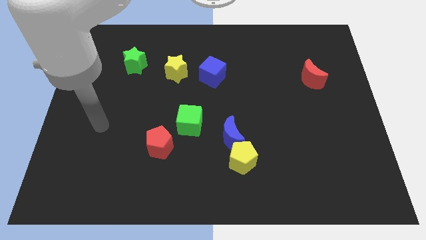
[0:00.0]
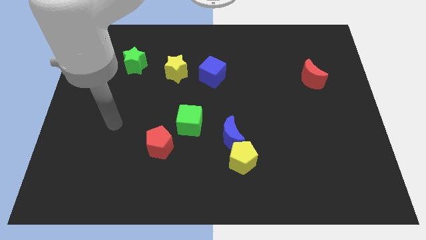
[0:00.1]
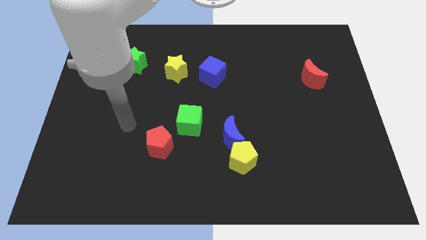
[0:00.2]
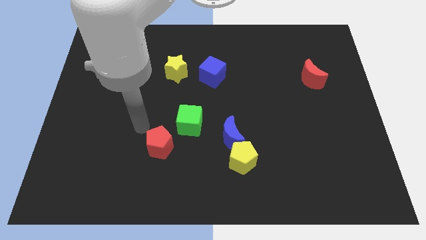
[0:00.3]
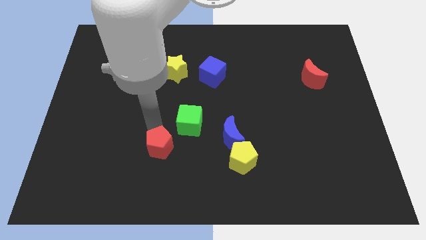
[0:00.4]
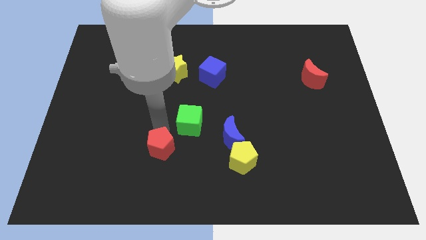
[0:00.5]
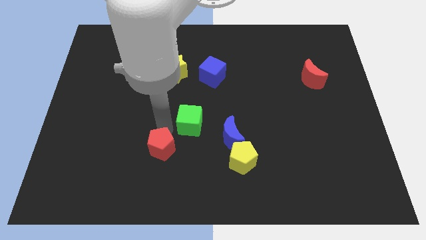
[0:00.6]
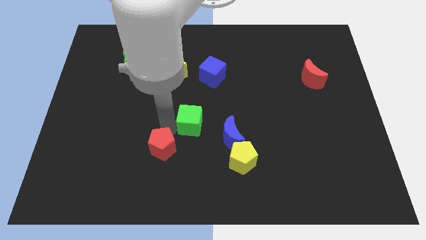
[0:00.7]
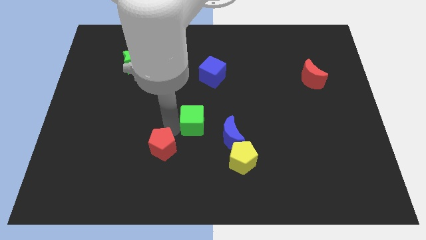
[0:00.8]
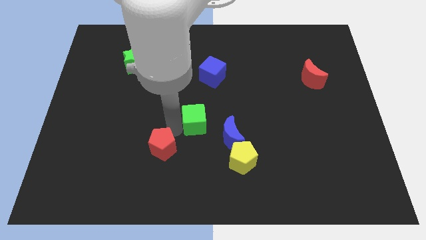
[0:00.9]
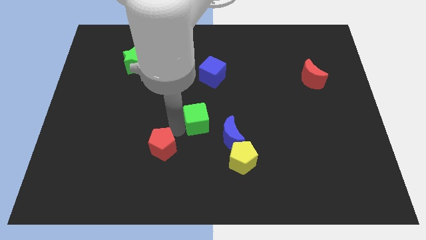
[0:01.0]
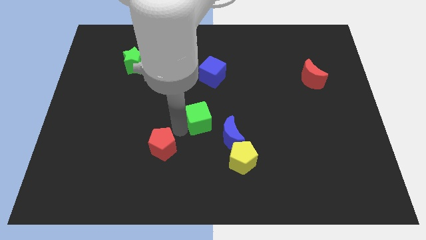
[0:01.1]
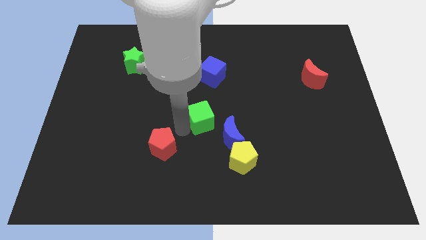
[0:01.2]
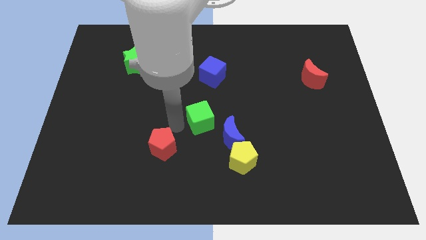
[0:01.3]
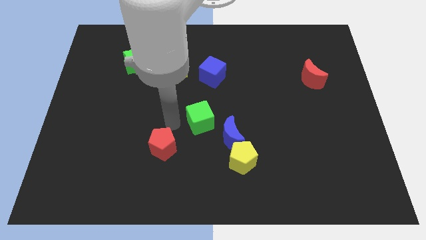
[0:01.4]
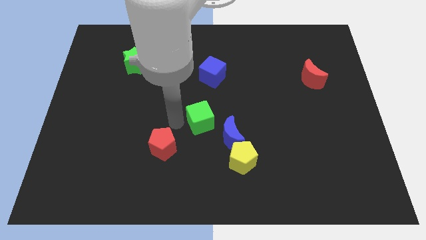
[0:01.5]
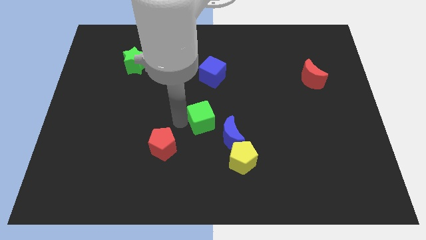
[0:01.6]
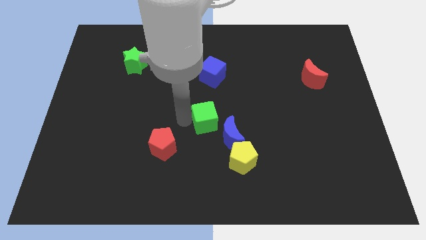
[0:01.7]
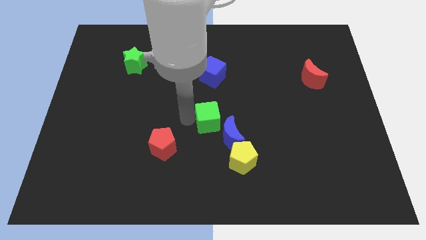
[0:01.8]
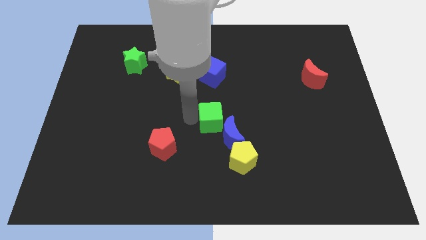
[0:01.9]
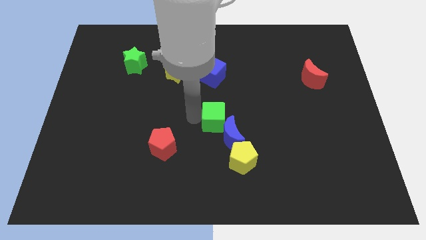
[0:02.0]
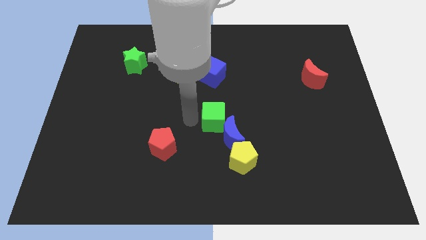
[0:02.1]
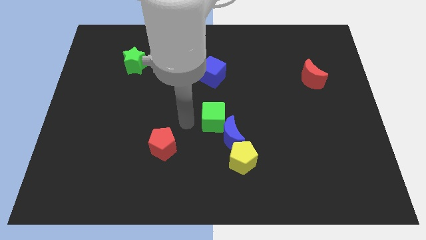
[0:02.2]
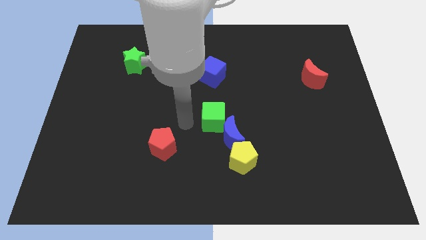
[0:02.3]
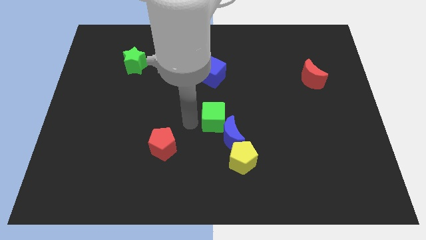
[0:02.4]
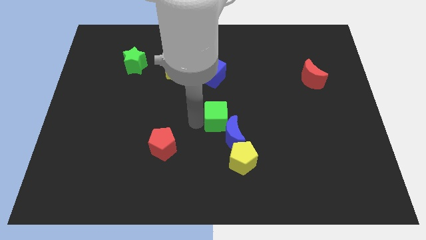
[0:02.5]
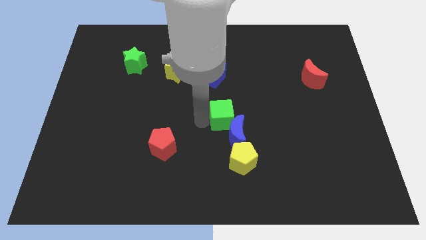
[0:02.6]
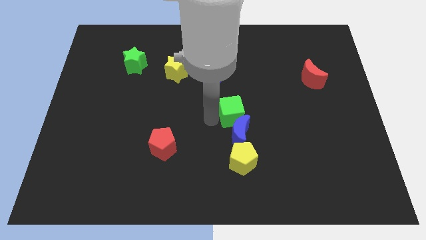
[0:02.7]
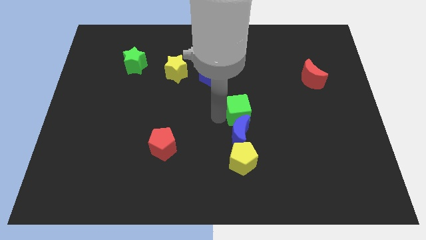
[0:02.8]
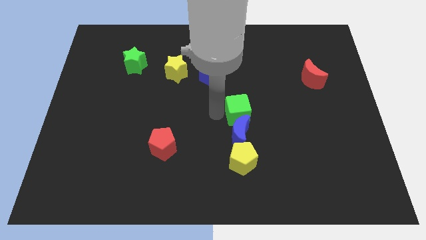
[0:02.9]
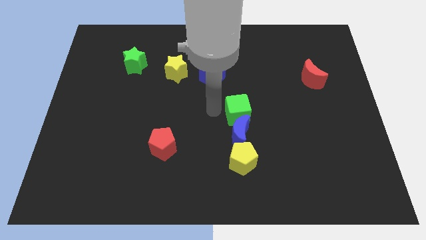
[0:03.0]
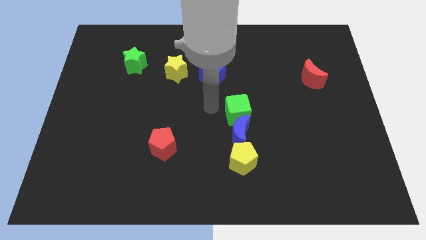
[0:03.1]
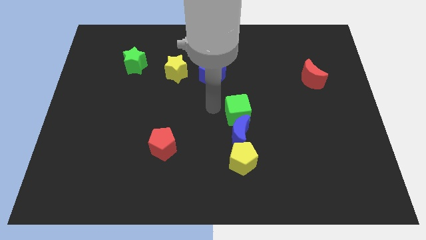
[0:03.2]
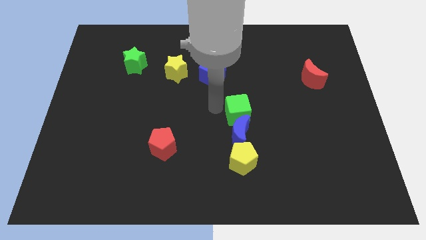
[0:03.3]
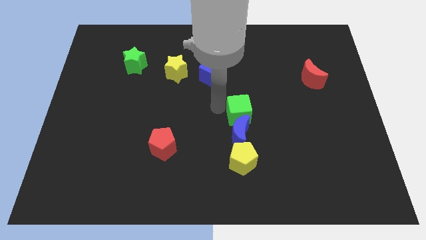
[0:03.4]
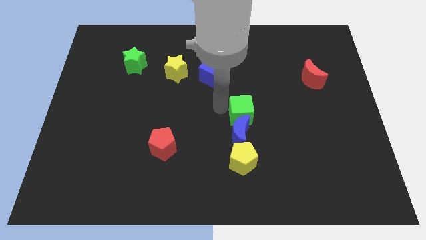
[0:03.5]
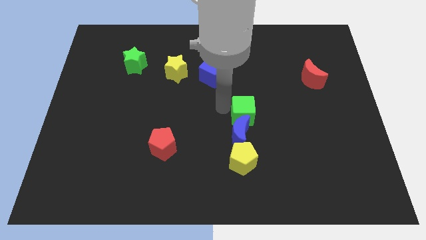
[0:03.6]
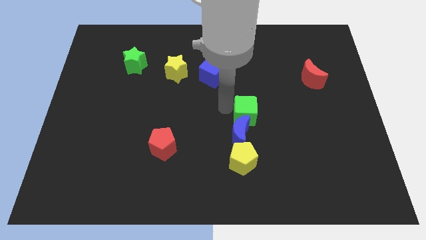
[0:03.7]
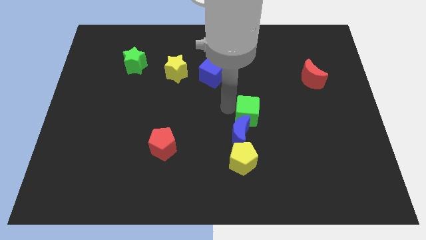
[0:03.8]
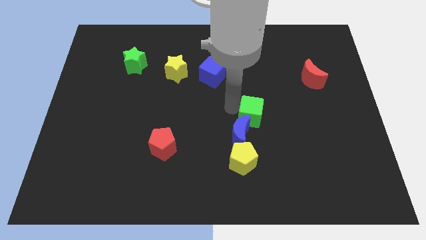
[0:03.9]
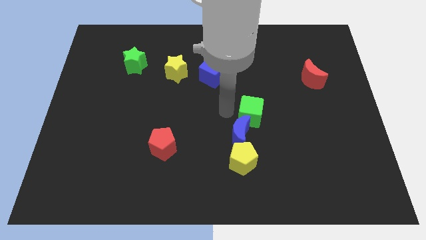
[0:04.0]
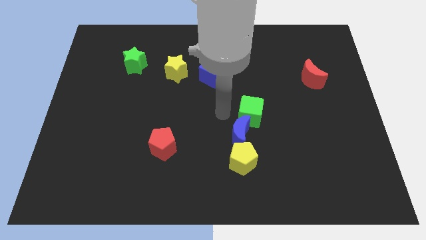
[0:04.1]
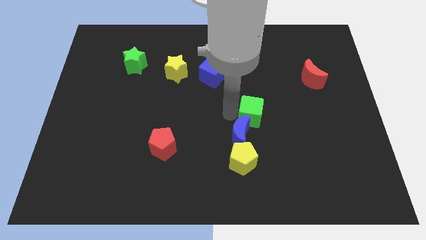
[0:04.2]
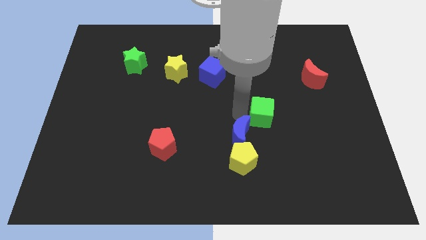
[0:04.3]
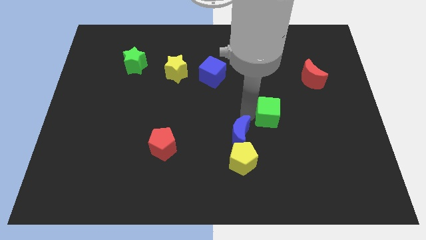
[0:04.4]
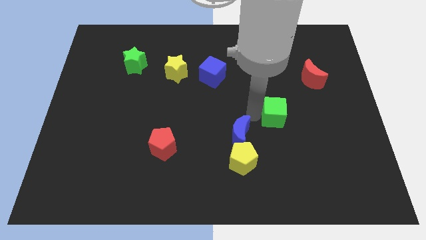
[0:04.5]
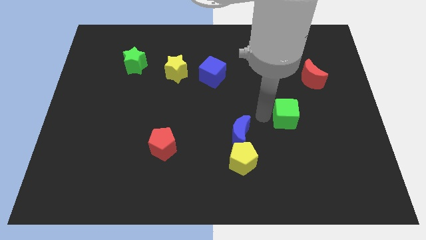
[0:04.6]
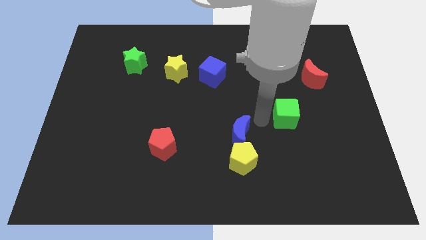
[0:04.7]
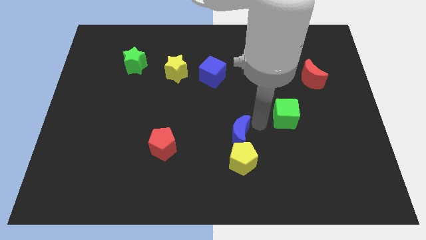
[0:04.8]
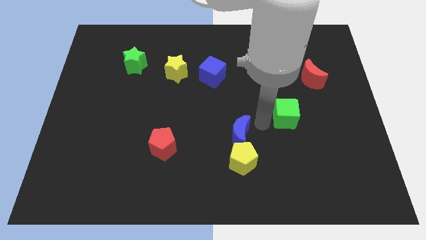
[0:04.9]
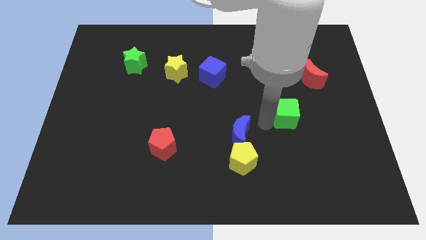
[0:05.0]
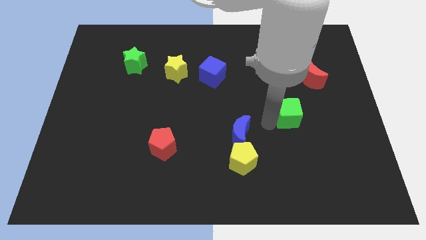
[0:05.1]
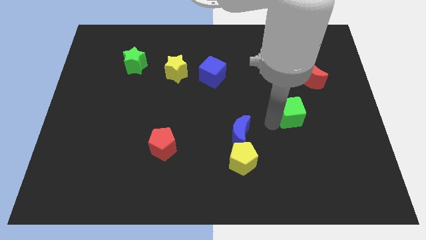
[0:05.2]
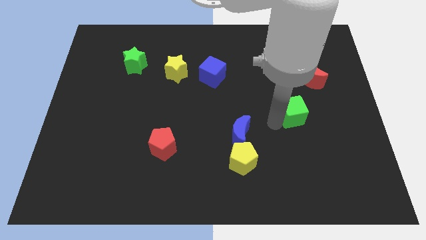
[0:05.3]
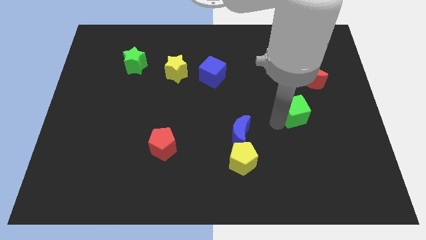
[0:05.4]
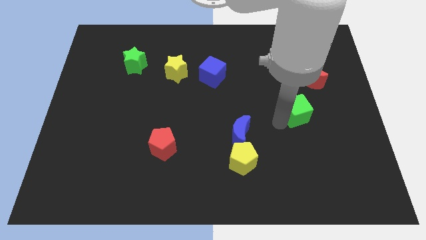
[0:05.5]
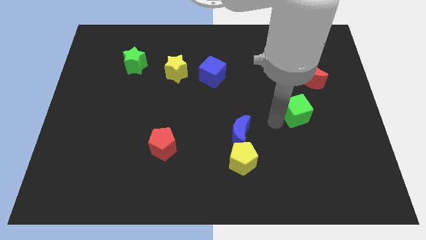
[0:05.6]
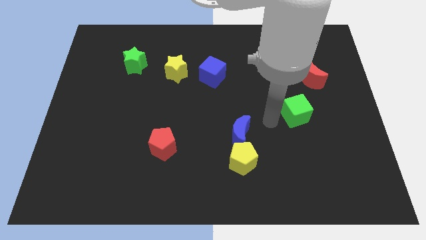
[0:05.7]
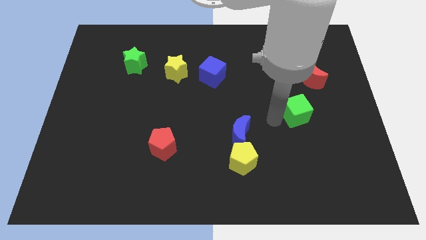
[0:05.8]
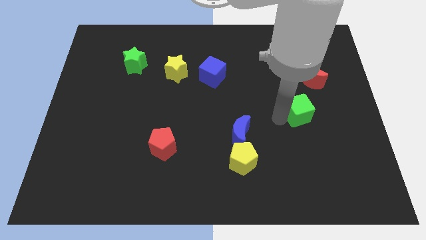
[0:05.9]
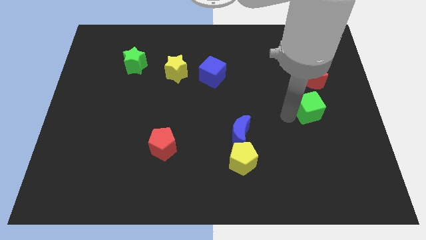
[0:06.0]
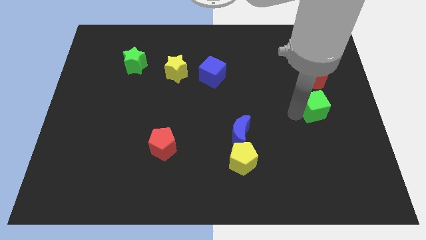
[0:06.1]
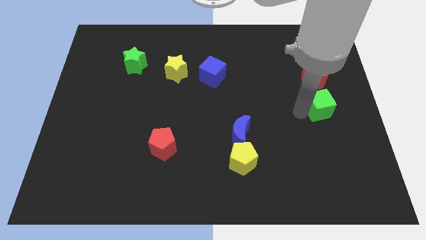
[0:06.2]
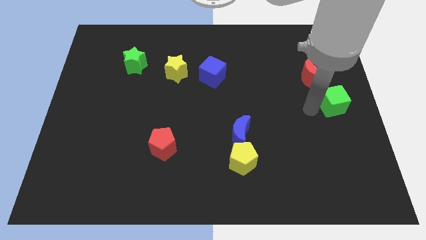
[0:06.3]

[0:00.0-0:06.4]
move the green cube to the right side of the board
